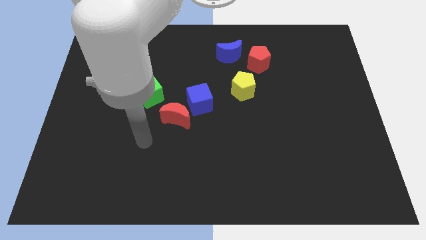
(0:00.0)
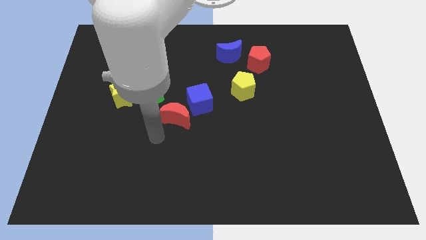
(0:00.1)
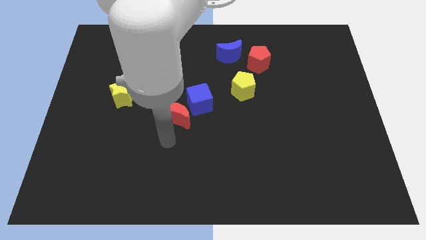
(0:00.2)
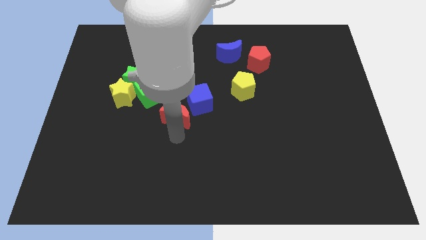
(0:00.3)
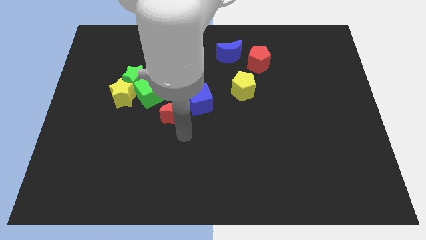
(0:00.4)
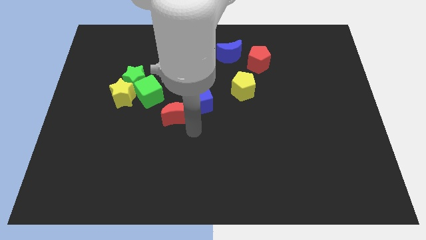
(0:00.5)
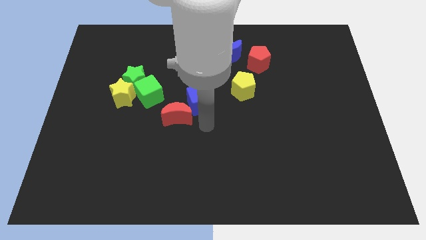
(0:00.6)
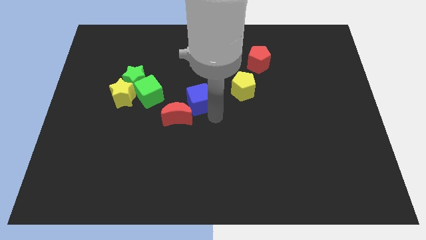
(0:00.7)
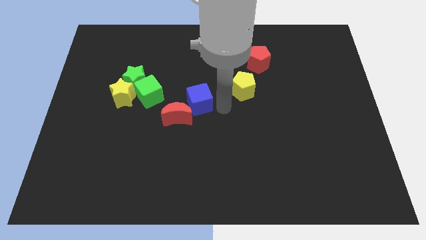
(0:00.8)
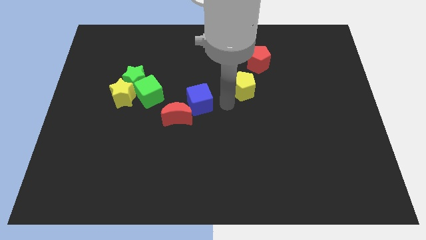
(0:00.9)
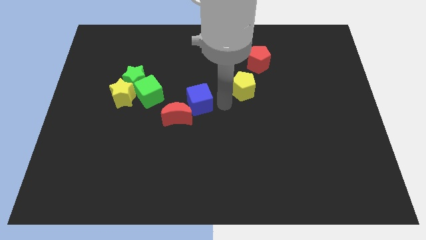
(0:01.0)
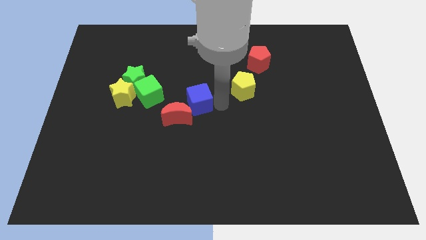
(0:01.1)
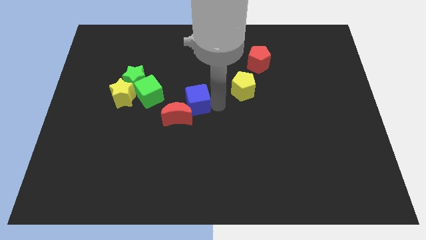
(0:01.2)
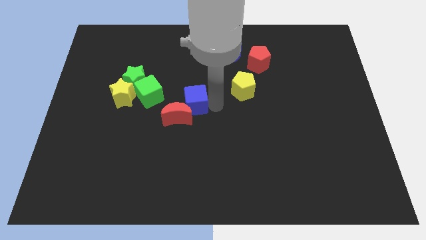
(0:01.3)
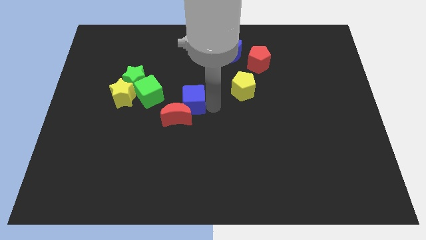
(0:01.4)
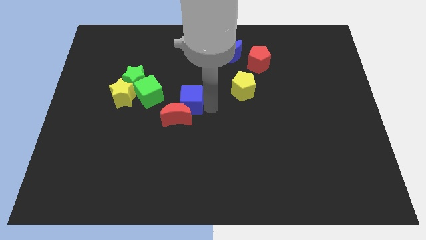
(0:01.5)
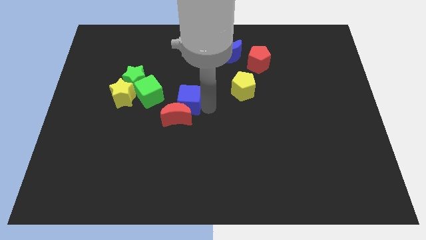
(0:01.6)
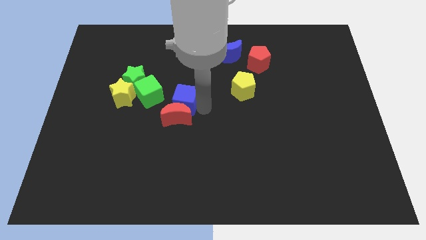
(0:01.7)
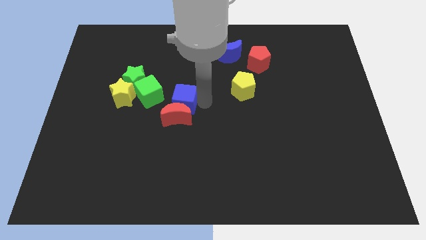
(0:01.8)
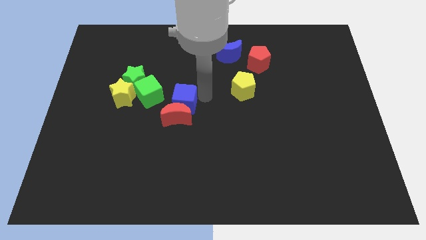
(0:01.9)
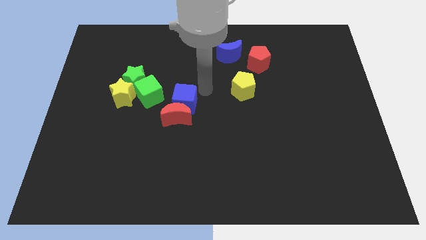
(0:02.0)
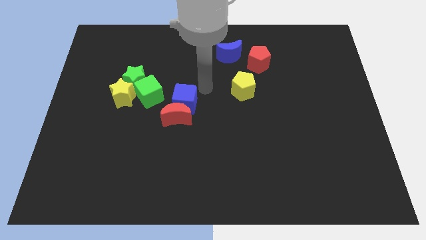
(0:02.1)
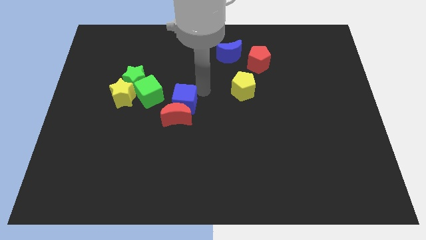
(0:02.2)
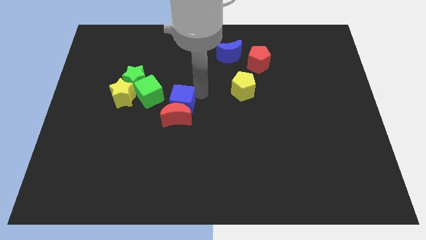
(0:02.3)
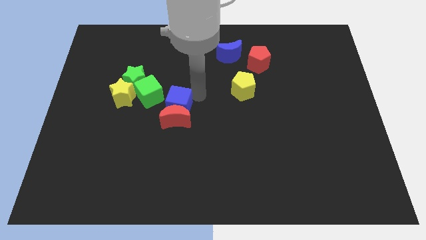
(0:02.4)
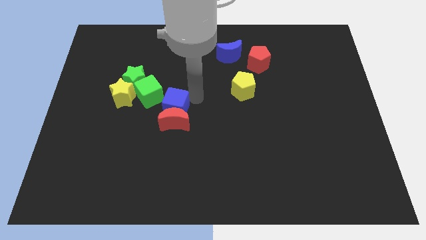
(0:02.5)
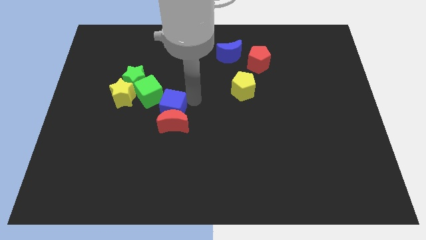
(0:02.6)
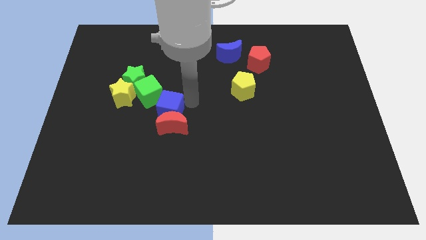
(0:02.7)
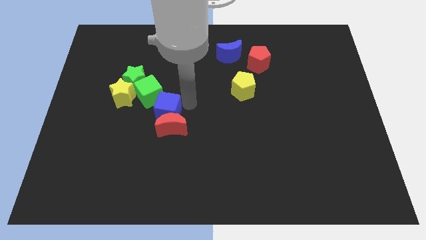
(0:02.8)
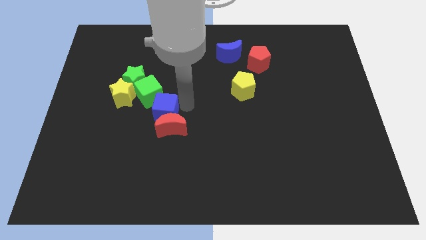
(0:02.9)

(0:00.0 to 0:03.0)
slide the blue cube somewhat downwards and to the left

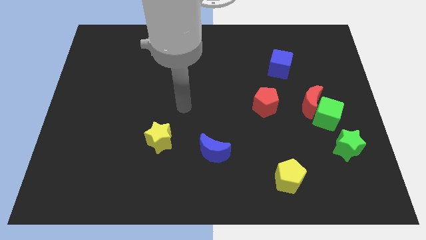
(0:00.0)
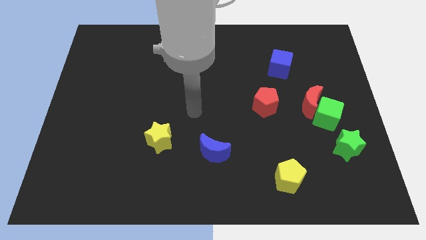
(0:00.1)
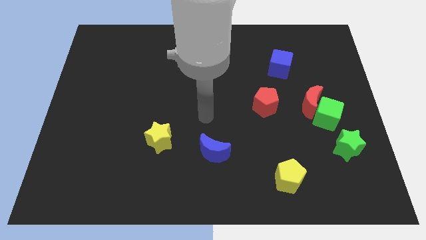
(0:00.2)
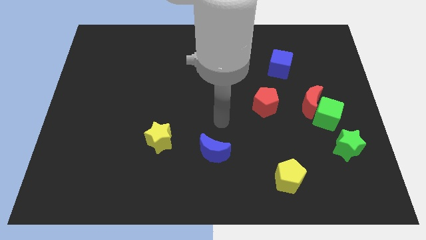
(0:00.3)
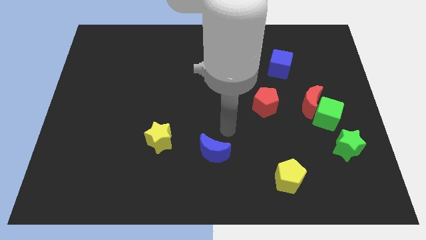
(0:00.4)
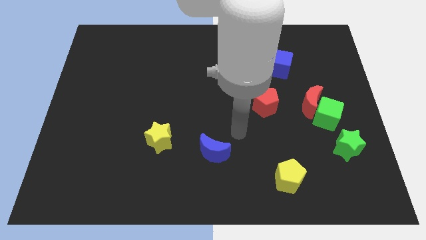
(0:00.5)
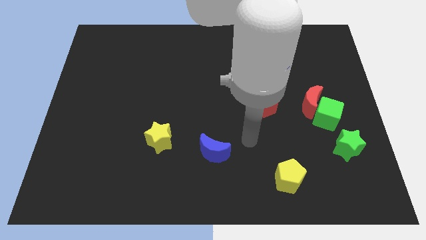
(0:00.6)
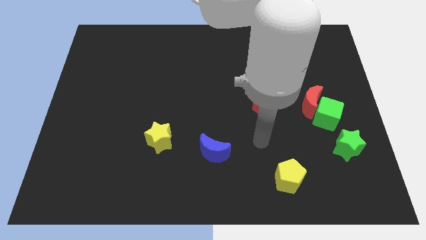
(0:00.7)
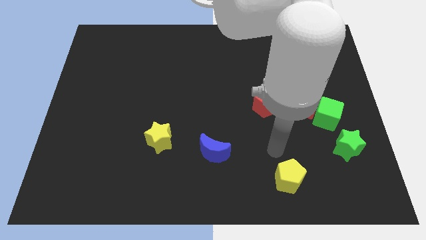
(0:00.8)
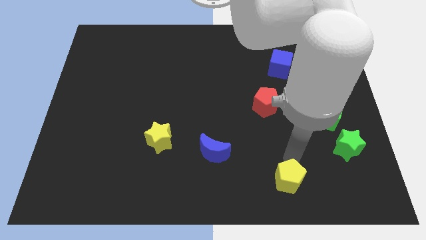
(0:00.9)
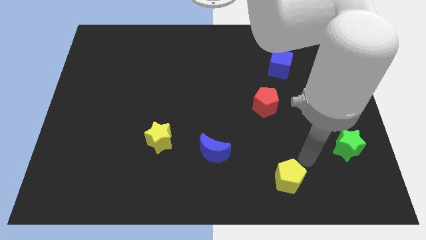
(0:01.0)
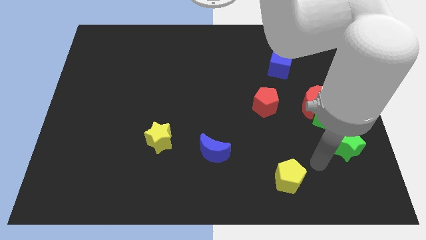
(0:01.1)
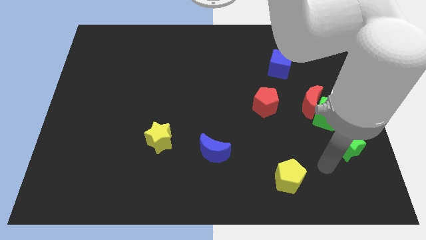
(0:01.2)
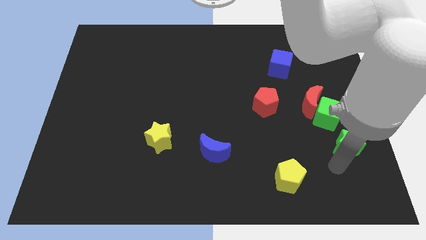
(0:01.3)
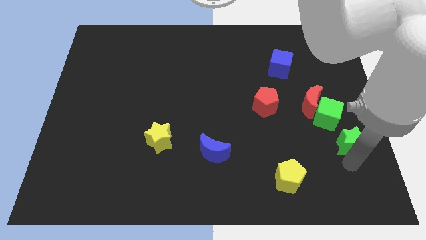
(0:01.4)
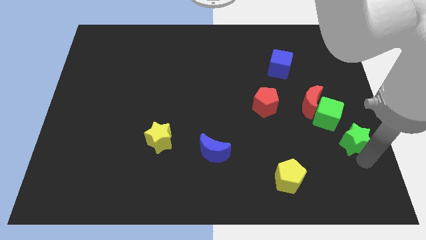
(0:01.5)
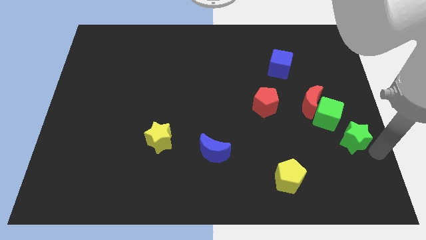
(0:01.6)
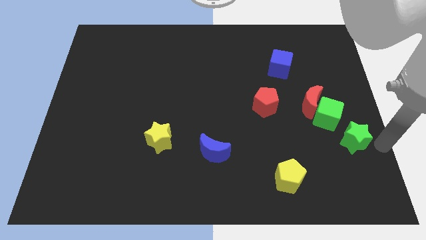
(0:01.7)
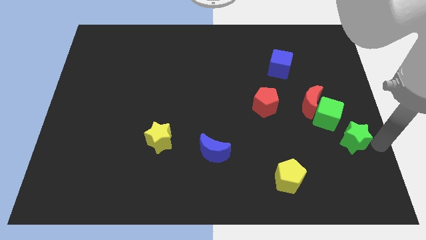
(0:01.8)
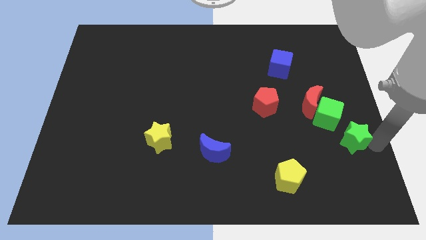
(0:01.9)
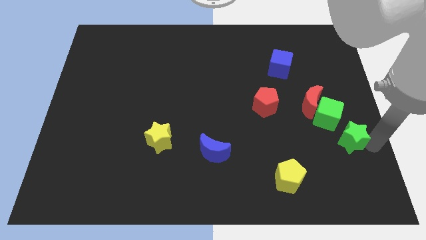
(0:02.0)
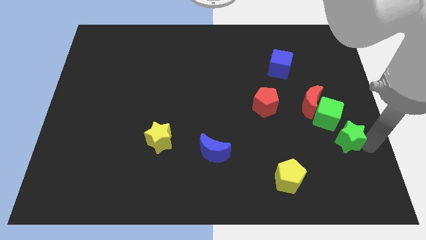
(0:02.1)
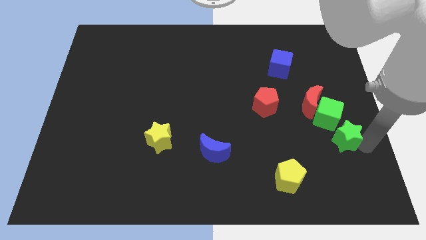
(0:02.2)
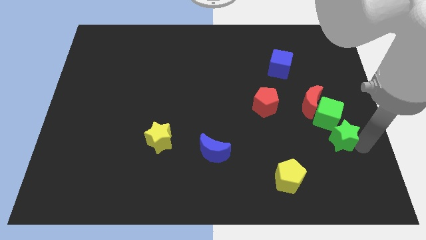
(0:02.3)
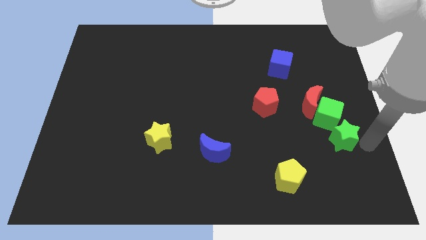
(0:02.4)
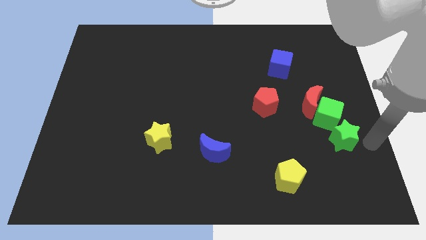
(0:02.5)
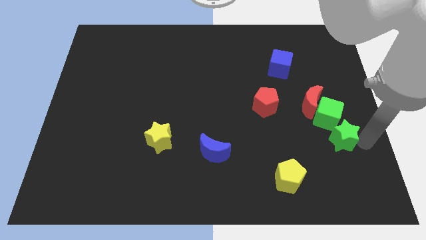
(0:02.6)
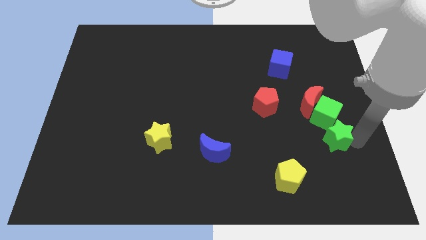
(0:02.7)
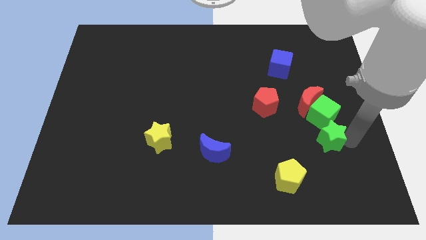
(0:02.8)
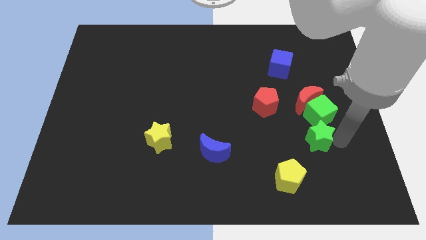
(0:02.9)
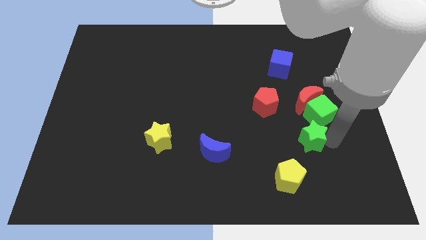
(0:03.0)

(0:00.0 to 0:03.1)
push the green star slightly to the left

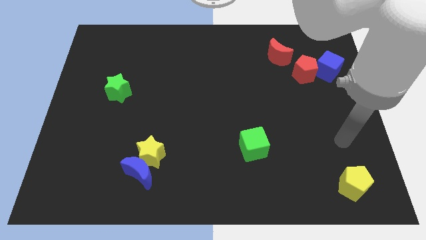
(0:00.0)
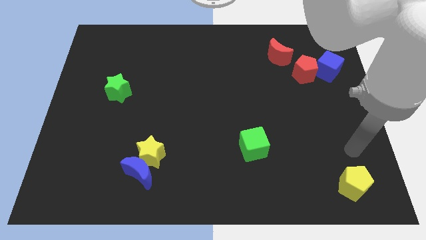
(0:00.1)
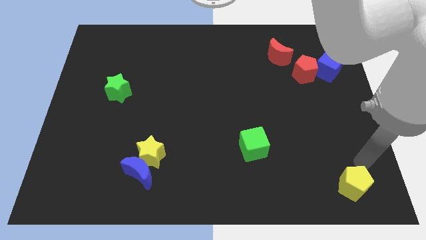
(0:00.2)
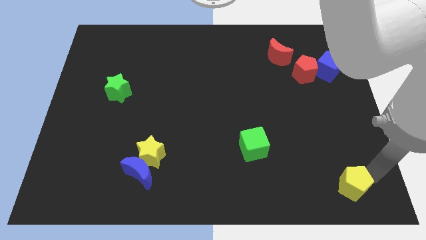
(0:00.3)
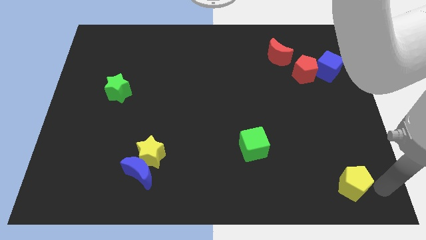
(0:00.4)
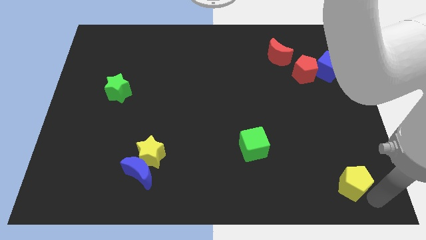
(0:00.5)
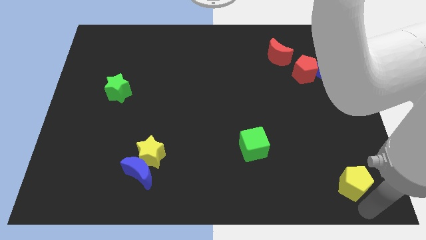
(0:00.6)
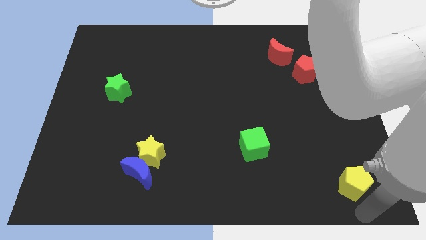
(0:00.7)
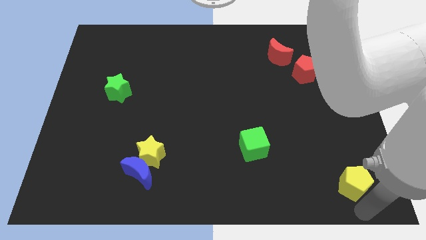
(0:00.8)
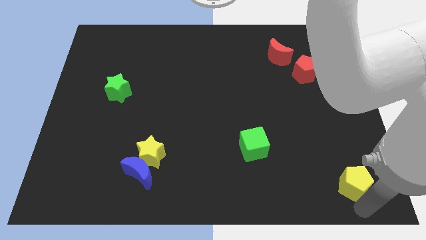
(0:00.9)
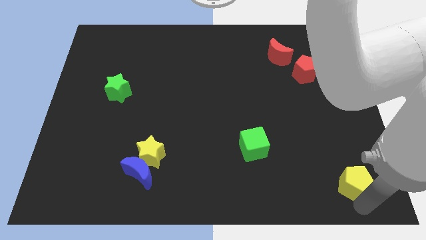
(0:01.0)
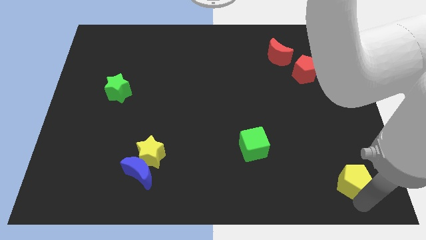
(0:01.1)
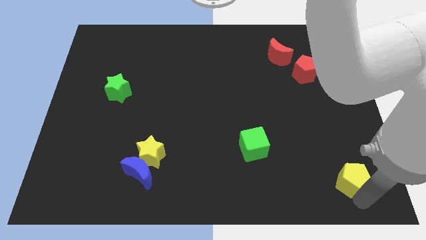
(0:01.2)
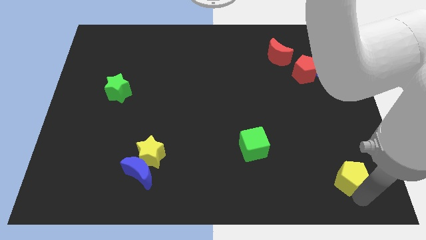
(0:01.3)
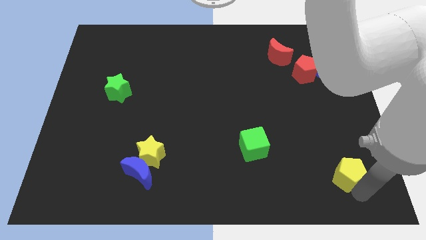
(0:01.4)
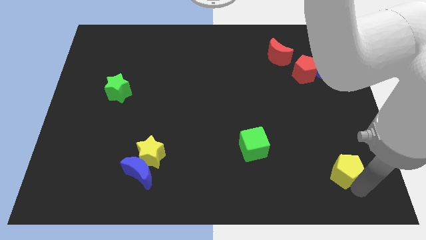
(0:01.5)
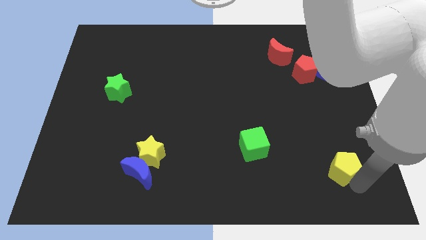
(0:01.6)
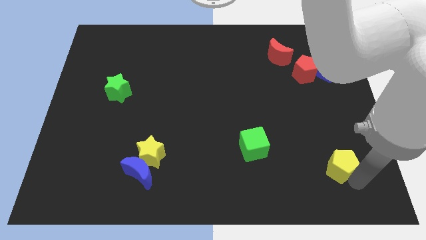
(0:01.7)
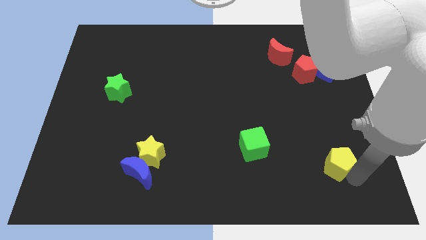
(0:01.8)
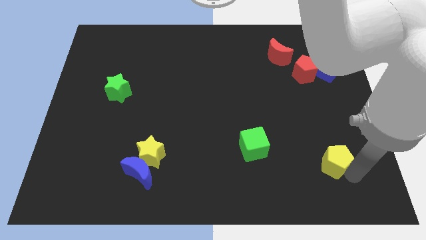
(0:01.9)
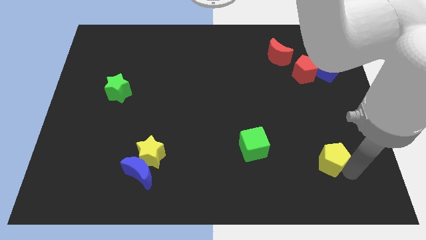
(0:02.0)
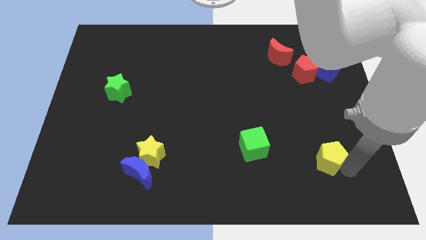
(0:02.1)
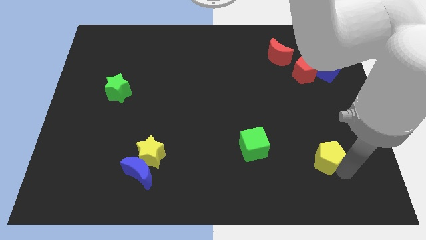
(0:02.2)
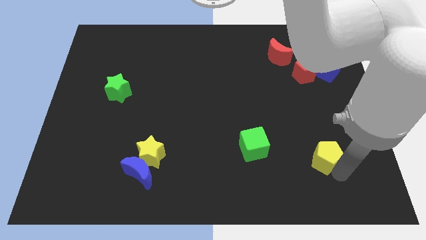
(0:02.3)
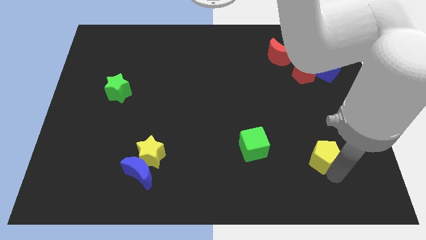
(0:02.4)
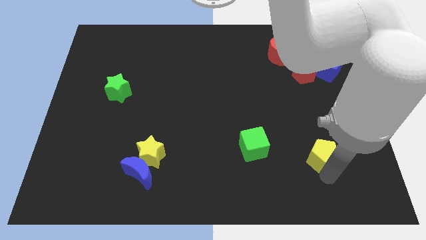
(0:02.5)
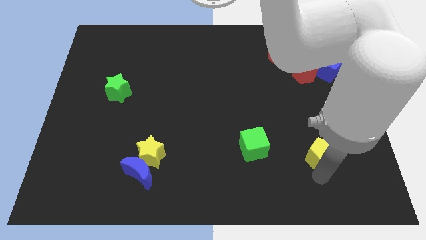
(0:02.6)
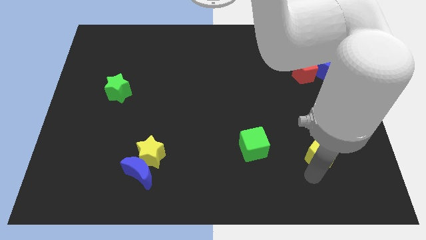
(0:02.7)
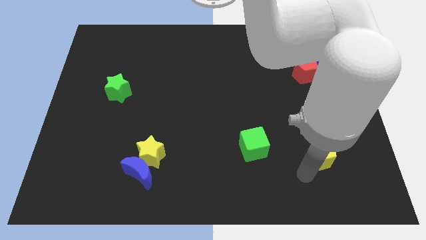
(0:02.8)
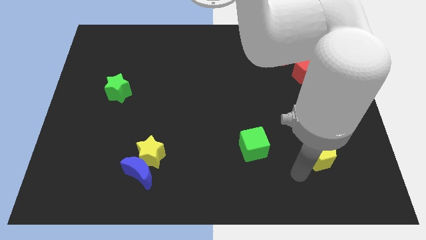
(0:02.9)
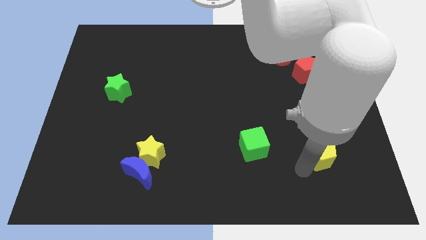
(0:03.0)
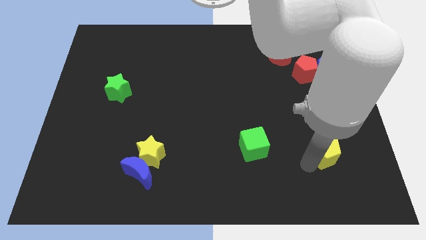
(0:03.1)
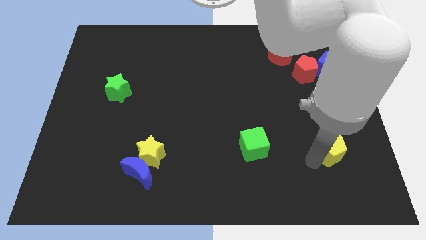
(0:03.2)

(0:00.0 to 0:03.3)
push the yellow pentagon upwards a little
